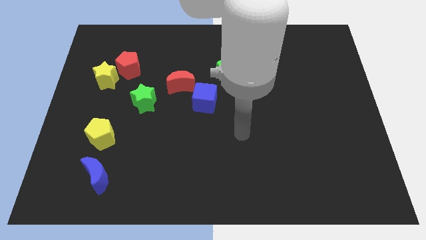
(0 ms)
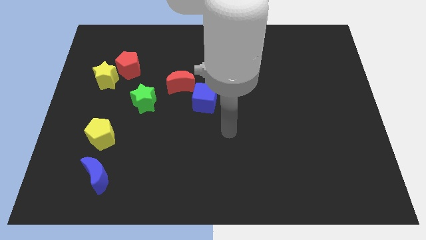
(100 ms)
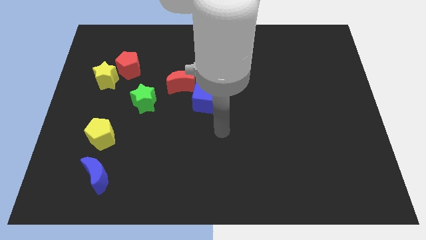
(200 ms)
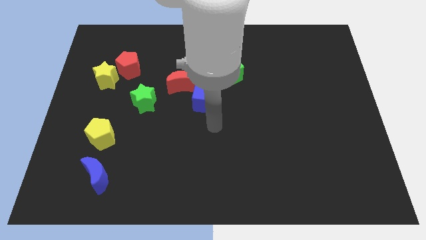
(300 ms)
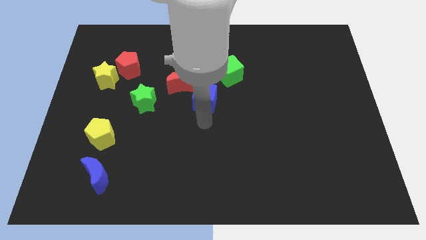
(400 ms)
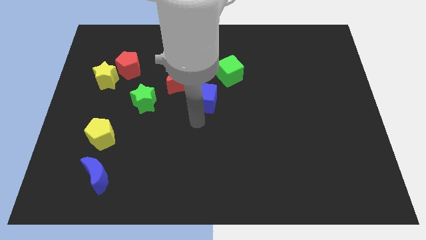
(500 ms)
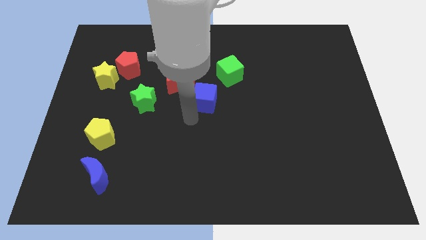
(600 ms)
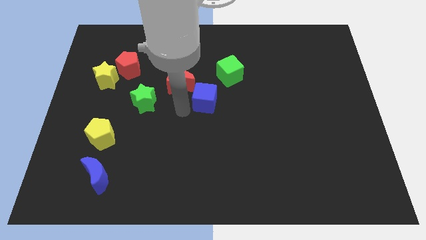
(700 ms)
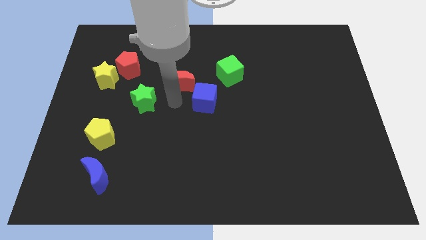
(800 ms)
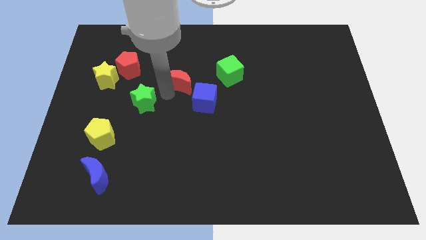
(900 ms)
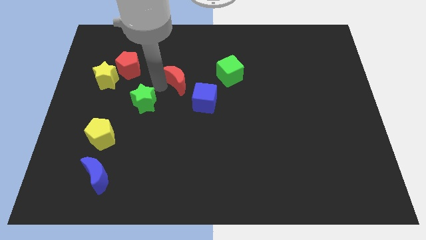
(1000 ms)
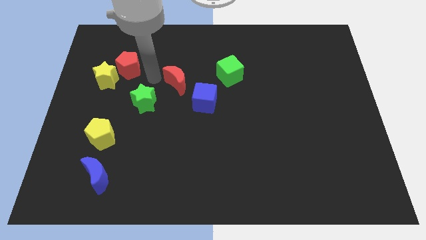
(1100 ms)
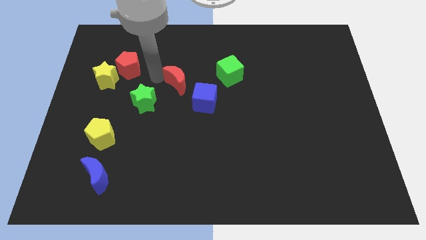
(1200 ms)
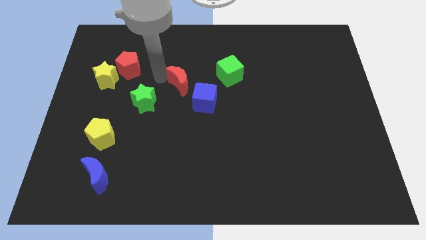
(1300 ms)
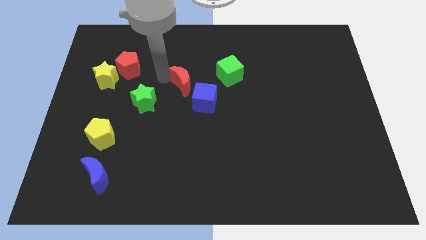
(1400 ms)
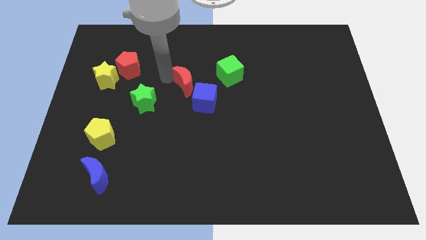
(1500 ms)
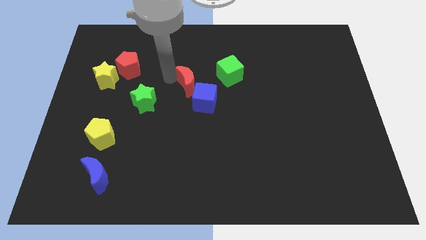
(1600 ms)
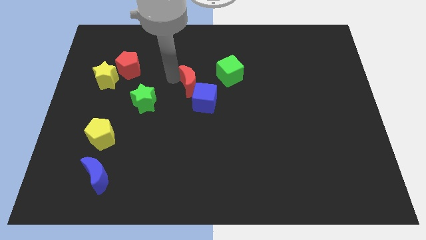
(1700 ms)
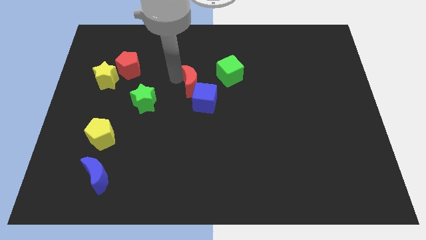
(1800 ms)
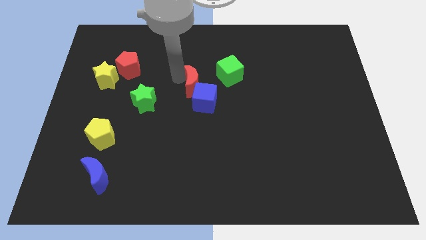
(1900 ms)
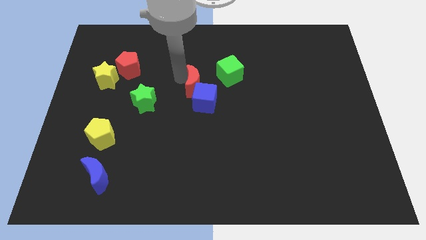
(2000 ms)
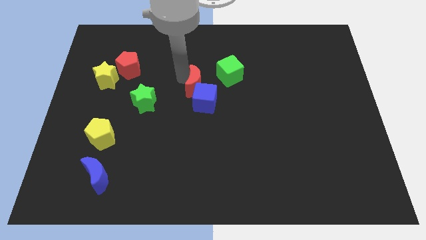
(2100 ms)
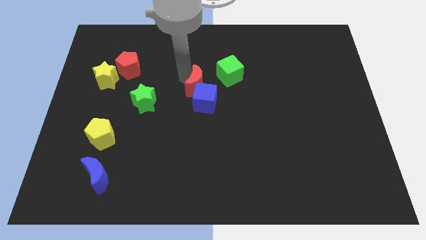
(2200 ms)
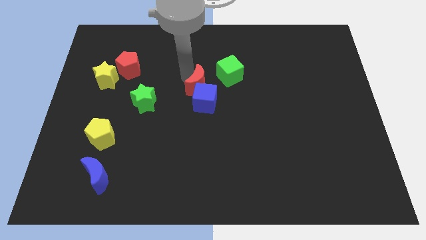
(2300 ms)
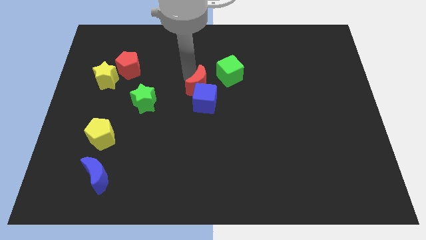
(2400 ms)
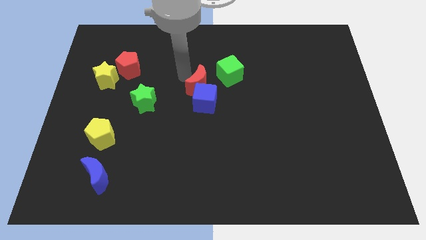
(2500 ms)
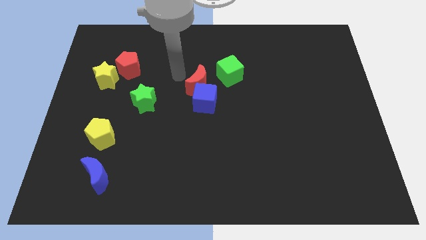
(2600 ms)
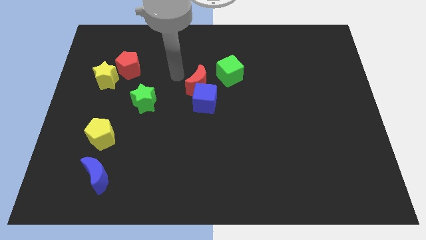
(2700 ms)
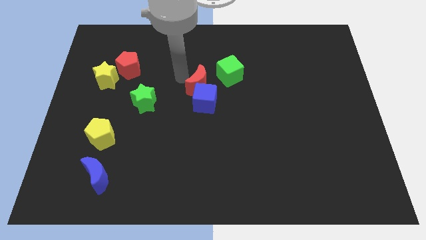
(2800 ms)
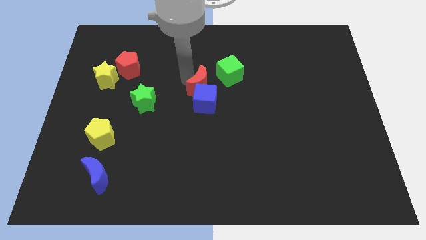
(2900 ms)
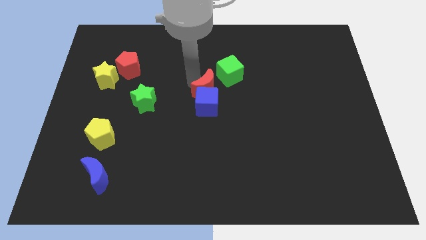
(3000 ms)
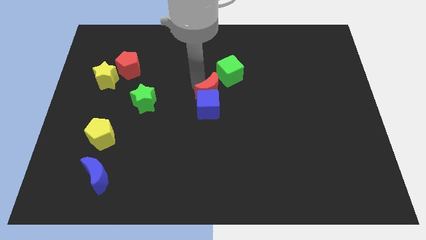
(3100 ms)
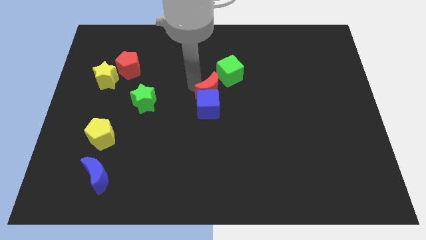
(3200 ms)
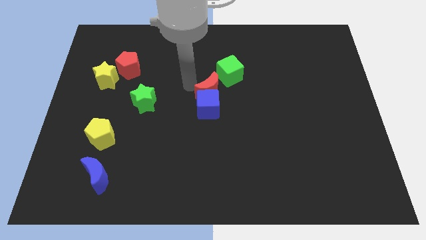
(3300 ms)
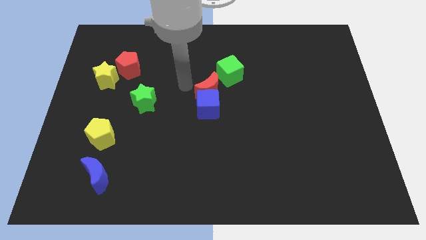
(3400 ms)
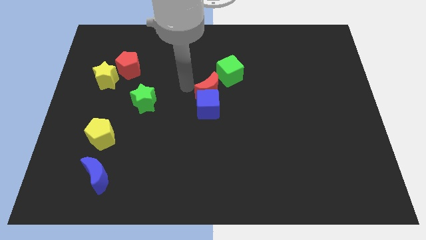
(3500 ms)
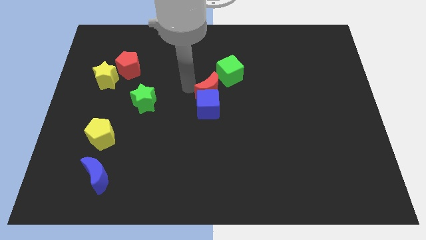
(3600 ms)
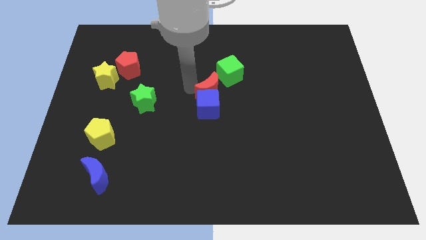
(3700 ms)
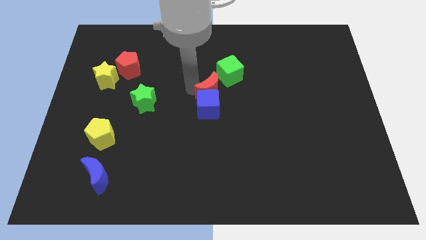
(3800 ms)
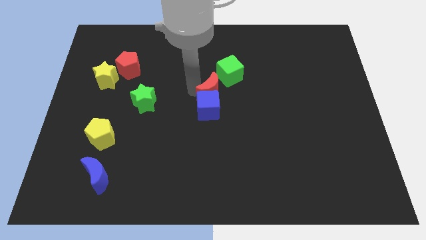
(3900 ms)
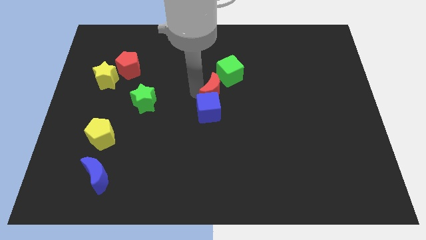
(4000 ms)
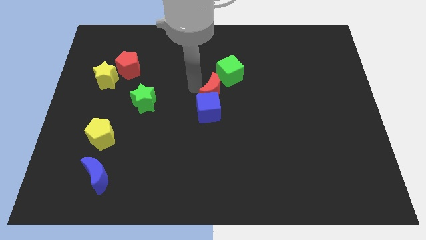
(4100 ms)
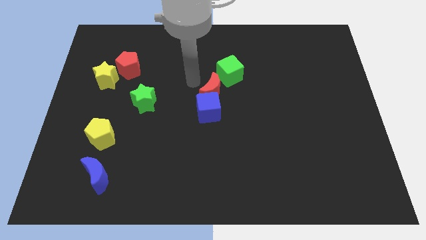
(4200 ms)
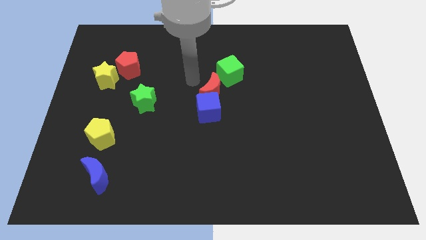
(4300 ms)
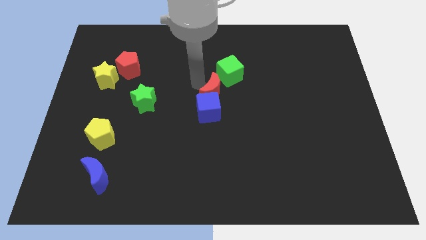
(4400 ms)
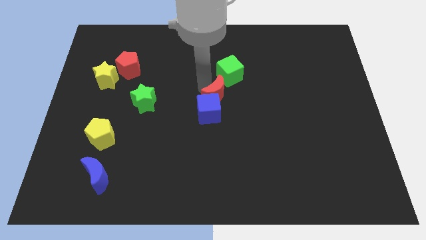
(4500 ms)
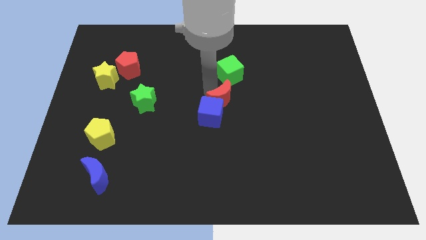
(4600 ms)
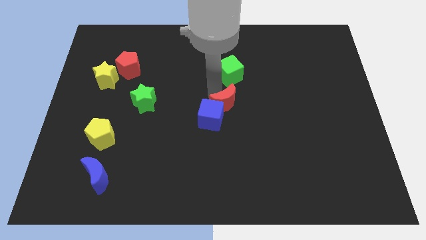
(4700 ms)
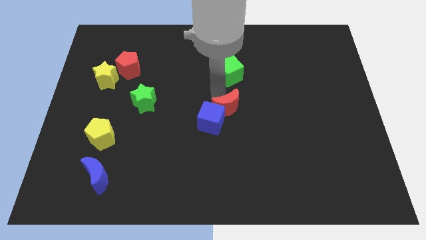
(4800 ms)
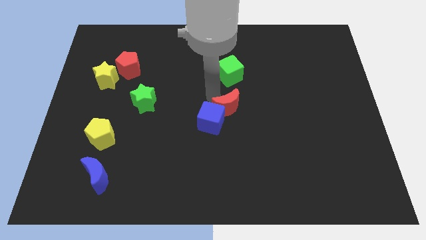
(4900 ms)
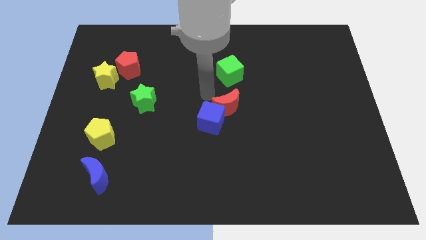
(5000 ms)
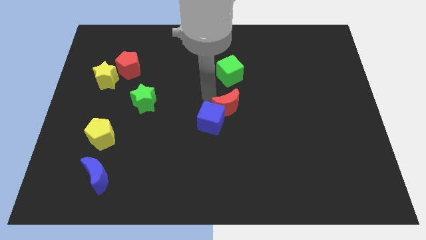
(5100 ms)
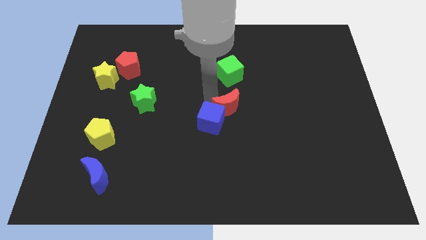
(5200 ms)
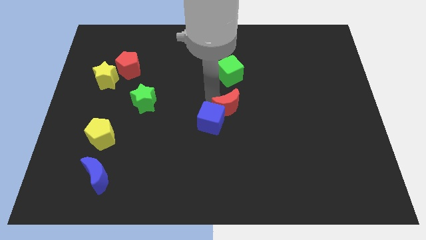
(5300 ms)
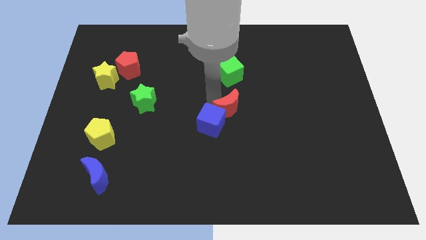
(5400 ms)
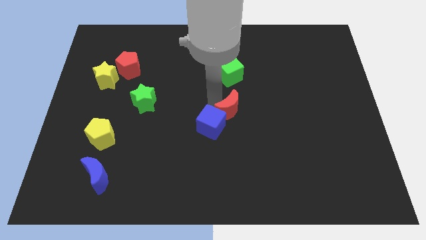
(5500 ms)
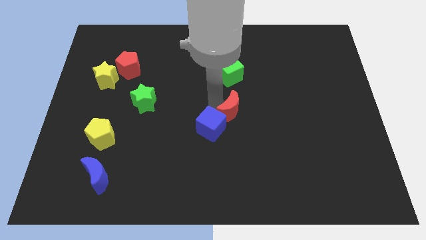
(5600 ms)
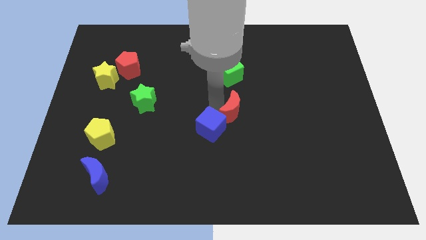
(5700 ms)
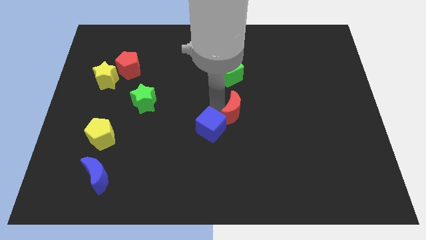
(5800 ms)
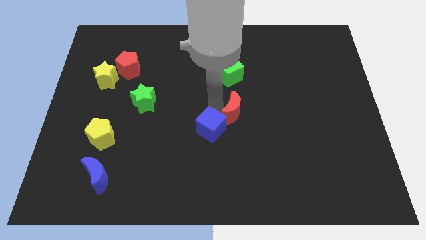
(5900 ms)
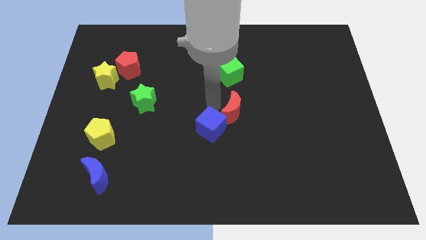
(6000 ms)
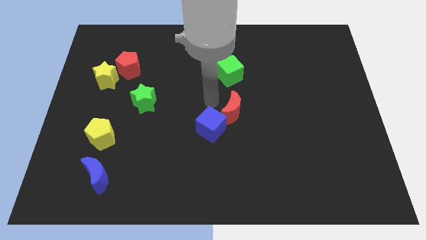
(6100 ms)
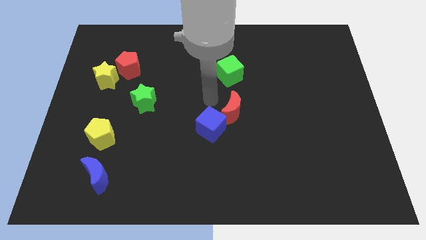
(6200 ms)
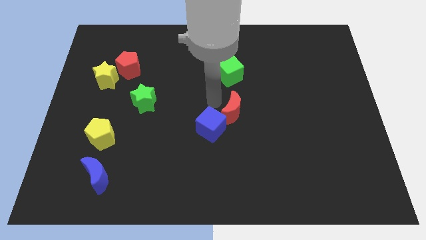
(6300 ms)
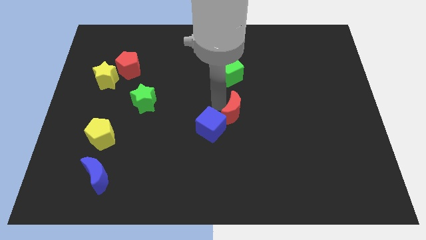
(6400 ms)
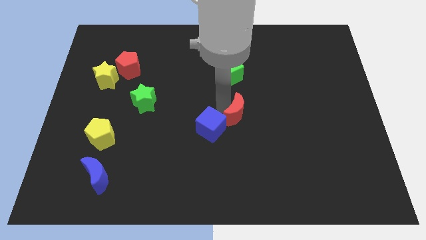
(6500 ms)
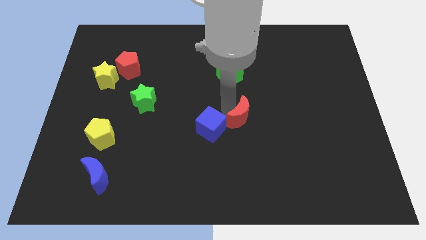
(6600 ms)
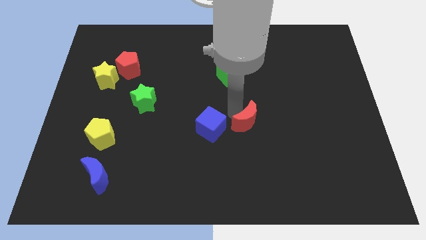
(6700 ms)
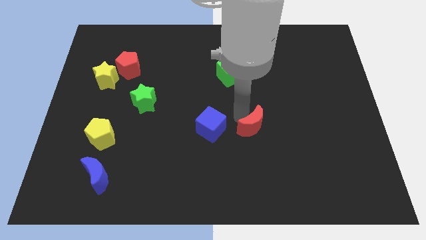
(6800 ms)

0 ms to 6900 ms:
move the red moon diagonally down and right

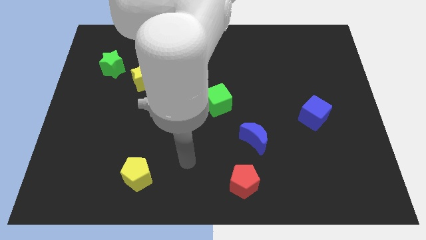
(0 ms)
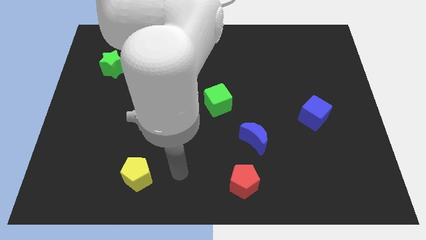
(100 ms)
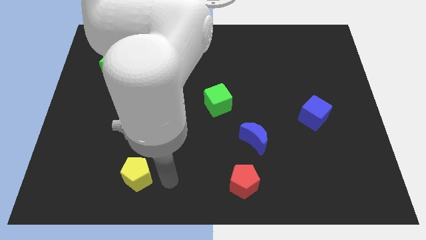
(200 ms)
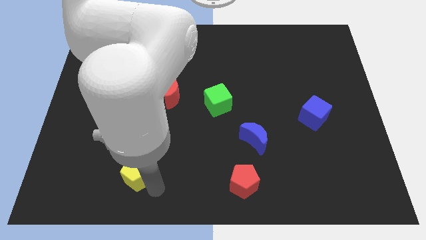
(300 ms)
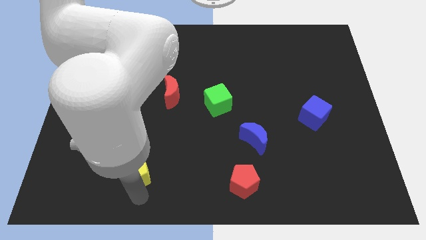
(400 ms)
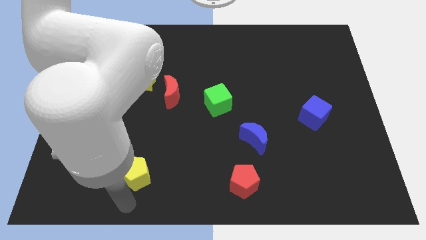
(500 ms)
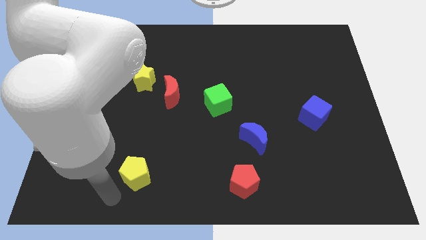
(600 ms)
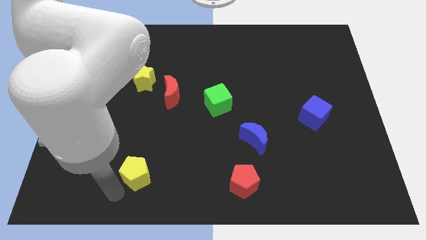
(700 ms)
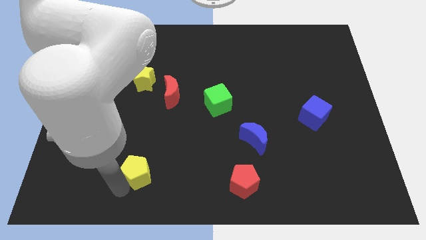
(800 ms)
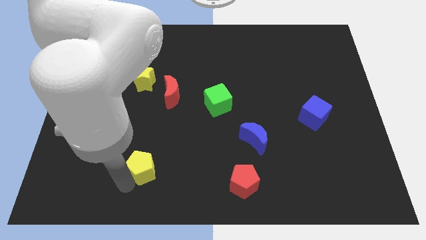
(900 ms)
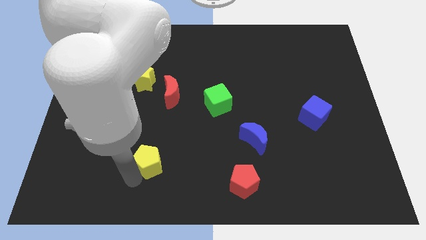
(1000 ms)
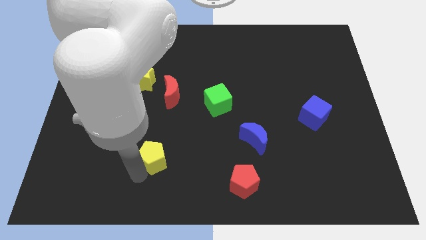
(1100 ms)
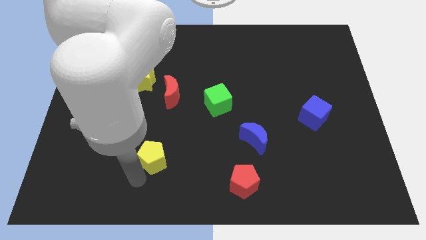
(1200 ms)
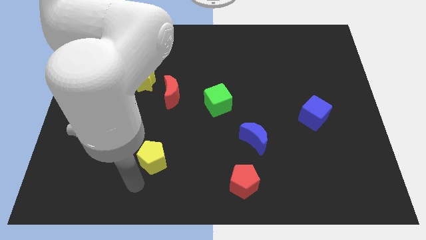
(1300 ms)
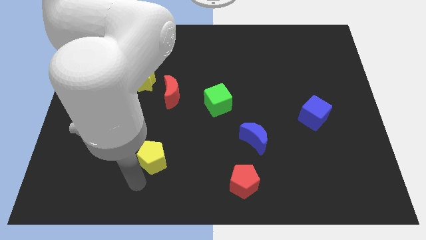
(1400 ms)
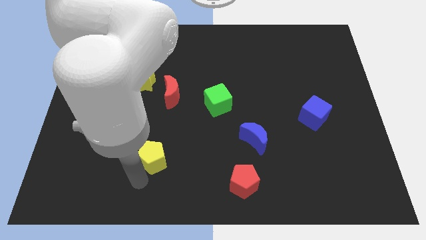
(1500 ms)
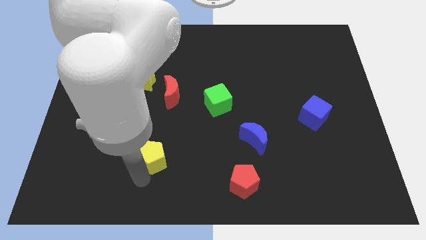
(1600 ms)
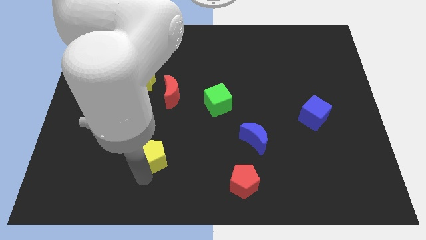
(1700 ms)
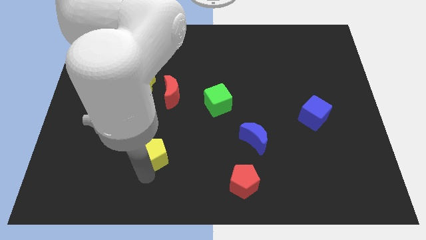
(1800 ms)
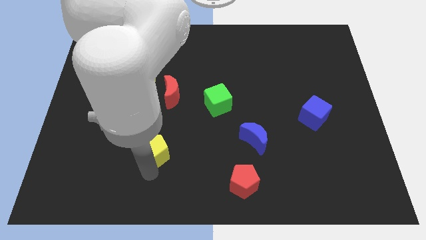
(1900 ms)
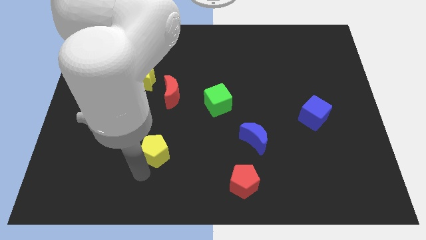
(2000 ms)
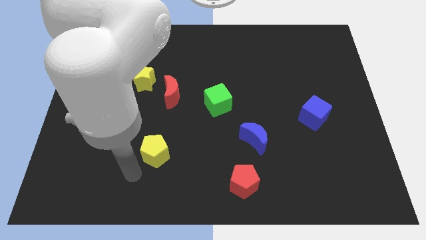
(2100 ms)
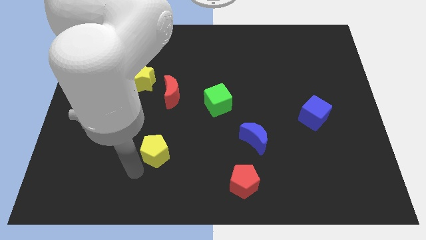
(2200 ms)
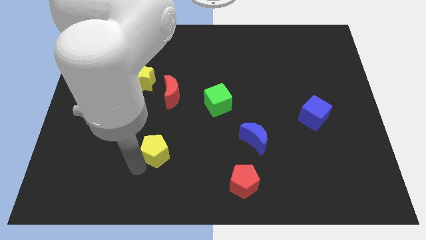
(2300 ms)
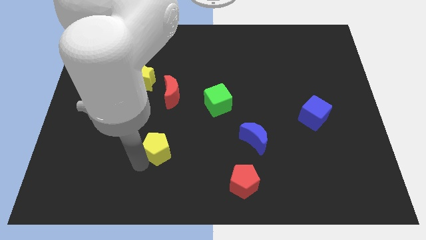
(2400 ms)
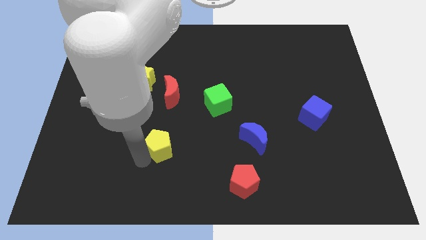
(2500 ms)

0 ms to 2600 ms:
move the yellow pentagon a little diagonally up and right
